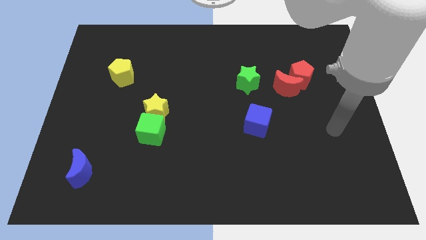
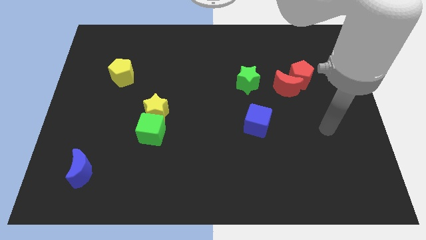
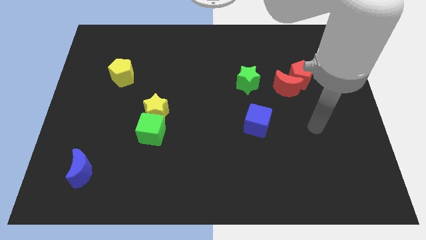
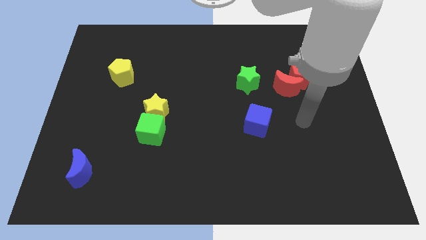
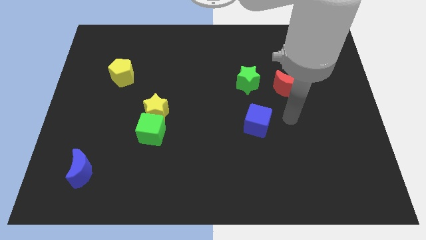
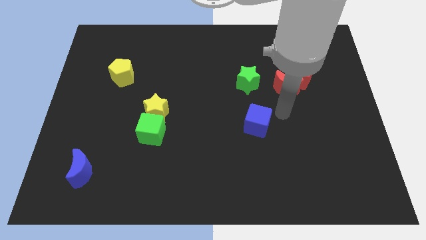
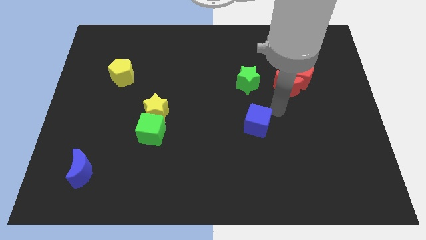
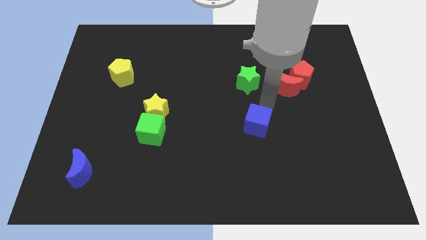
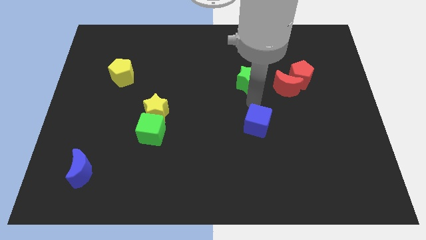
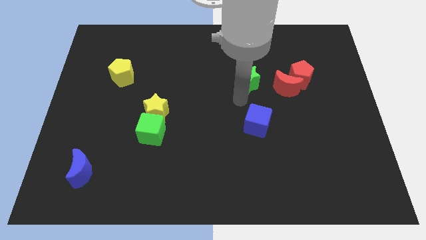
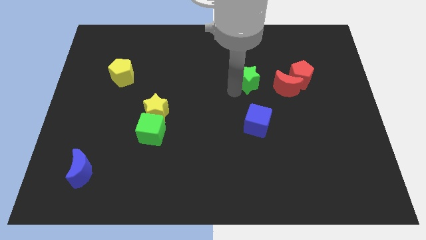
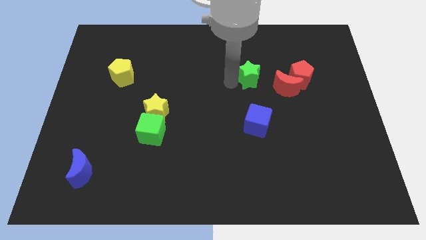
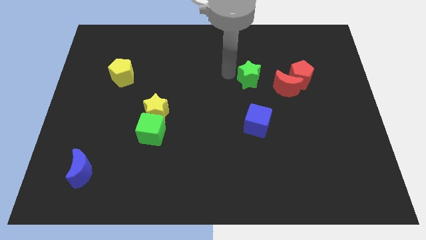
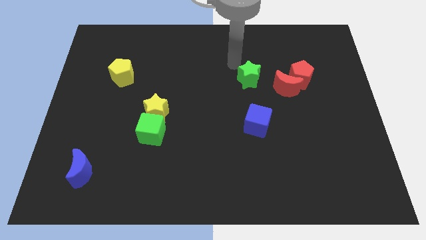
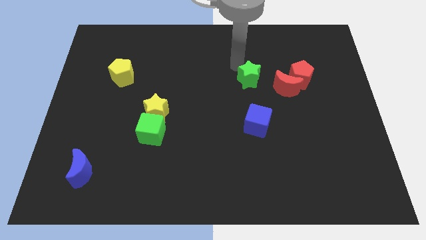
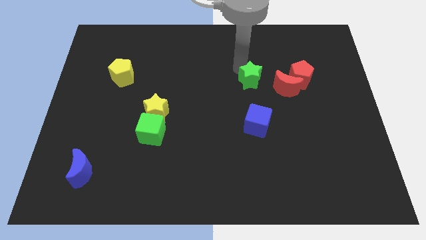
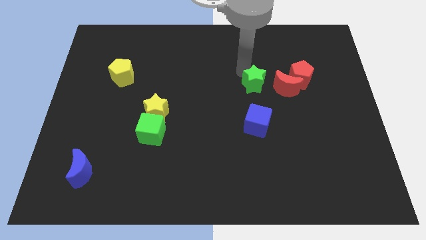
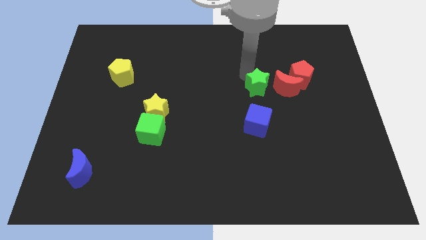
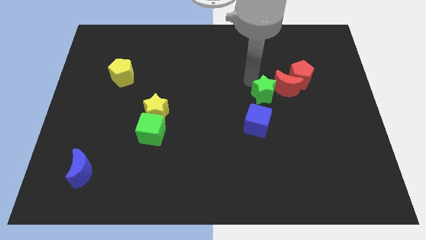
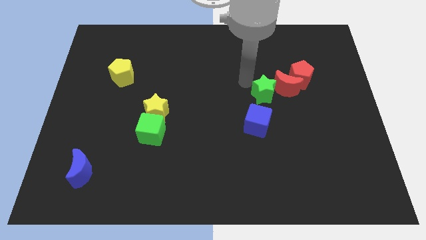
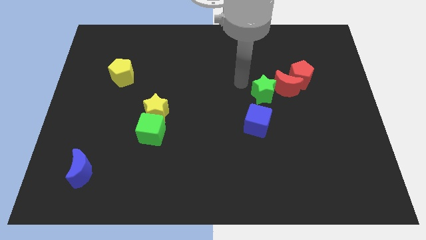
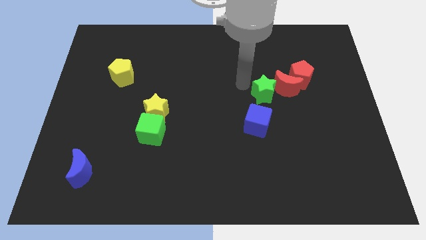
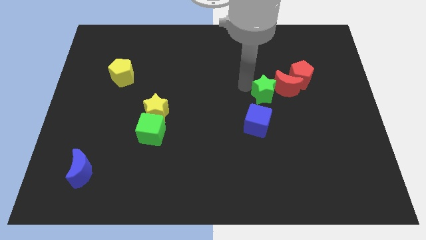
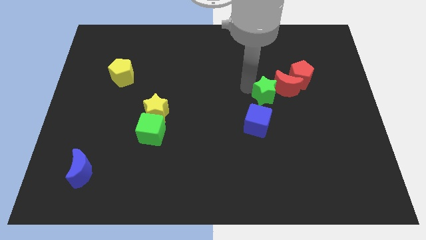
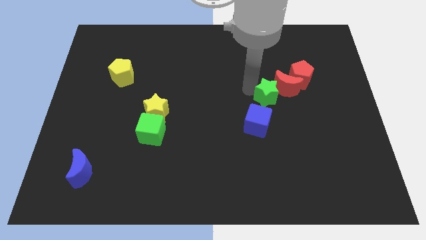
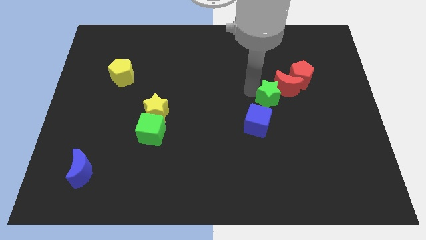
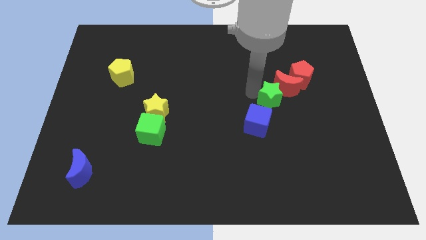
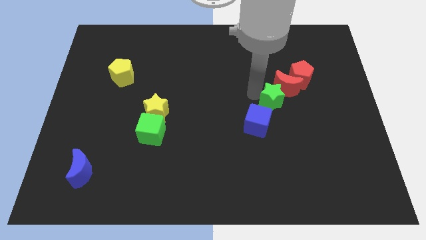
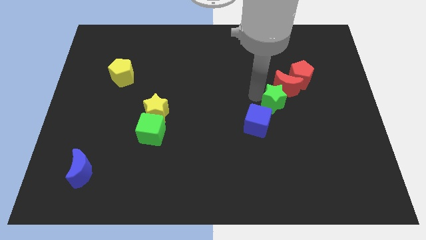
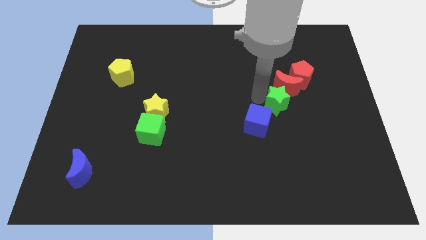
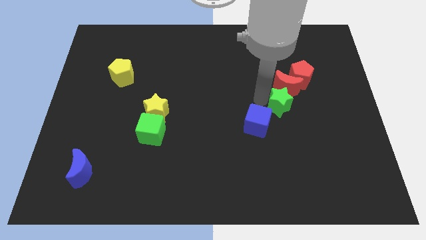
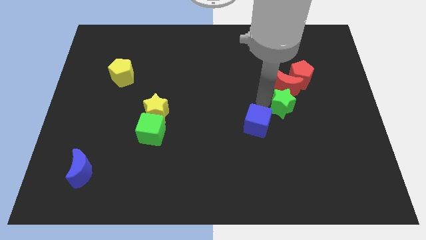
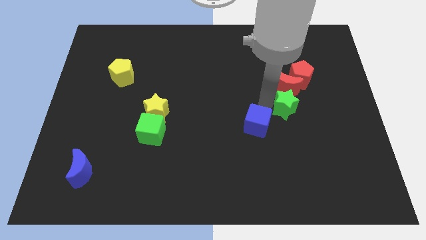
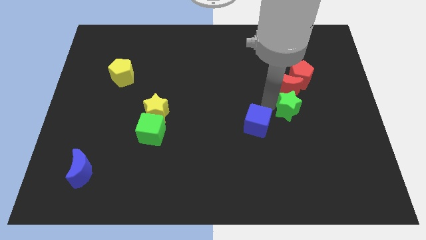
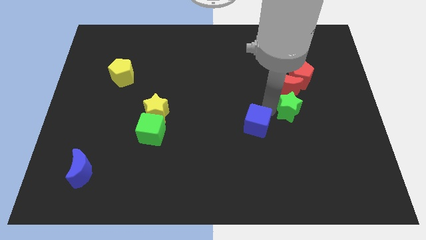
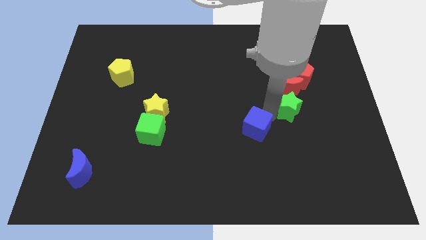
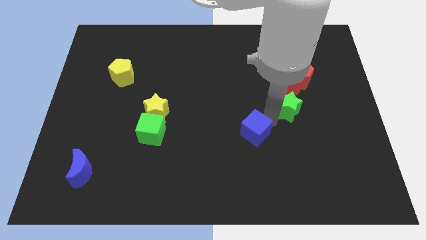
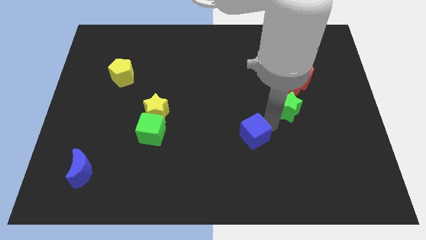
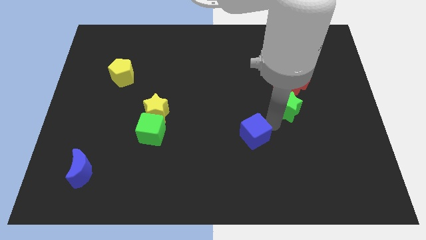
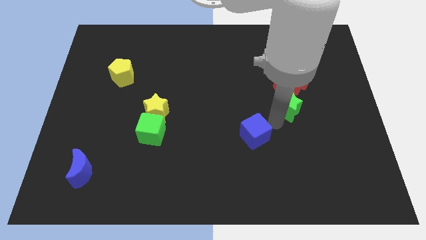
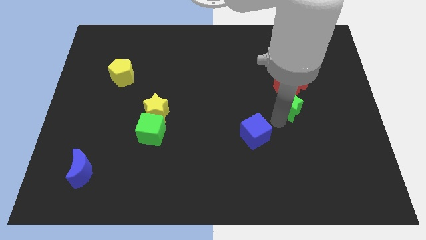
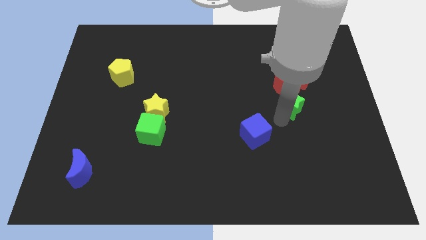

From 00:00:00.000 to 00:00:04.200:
slightly move the green star right

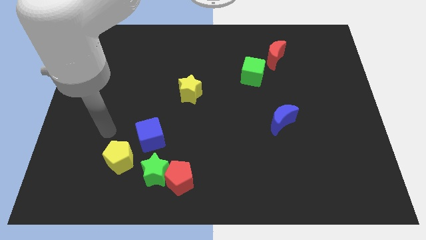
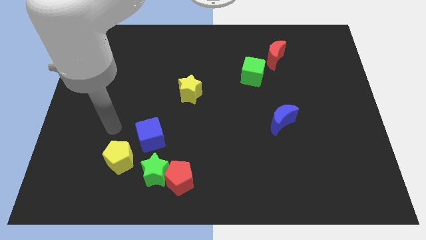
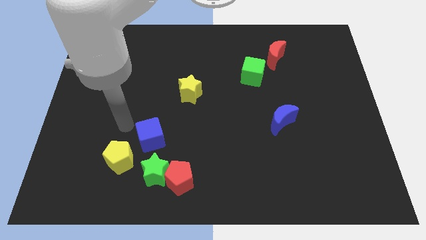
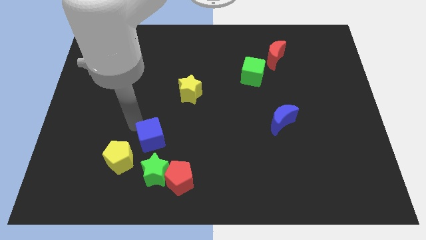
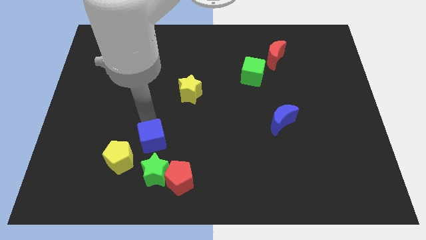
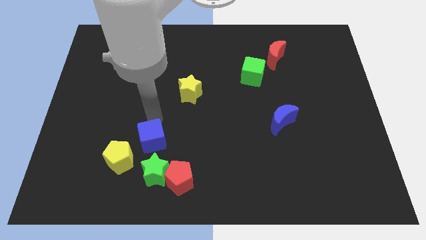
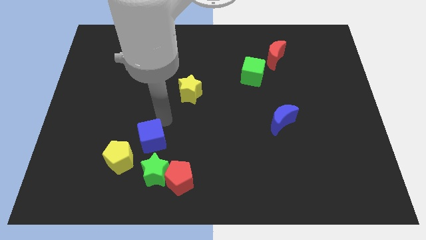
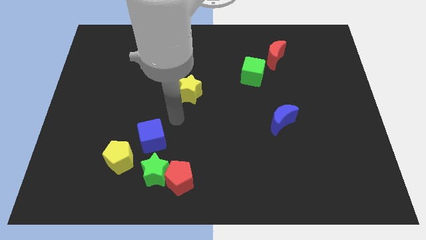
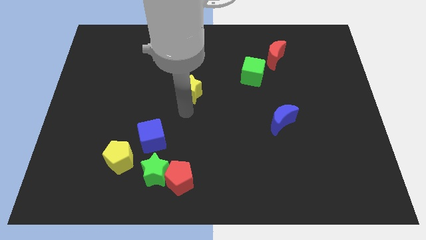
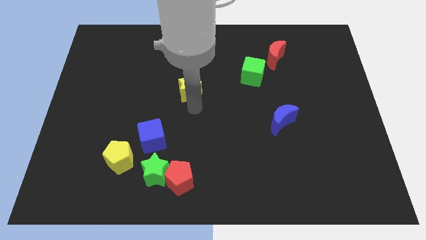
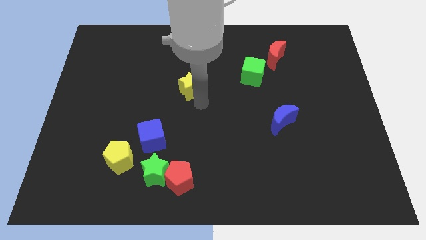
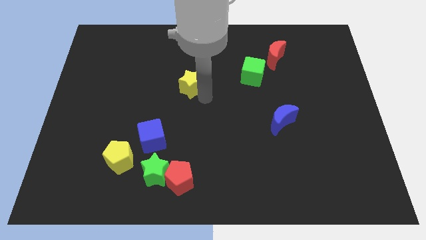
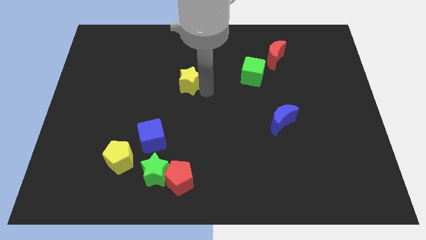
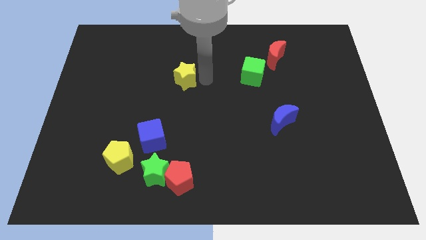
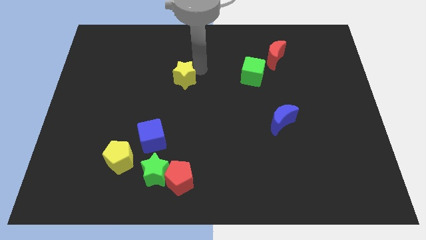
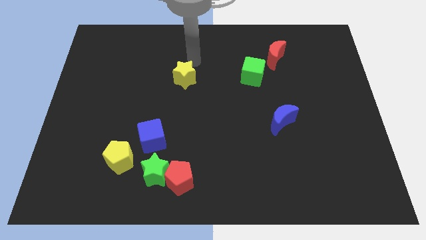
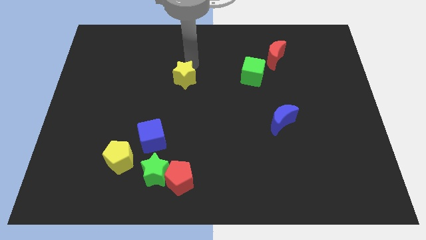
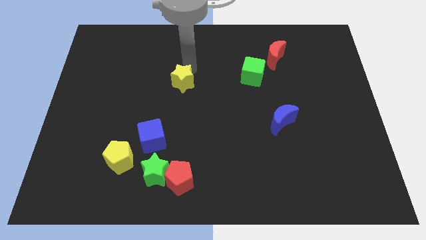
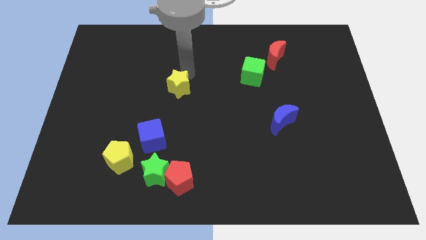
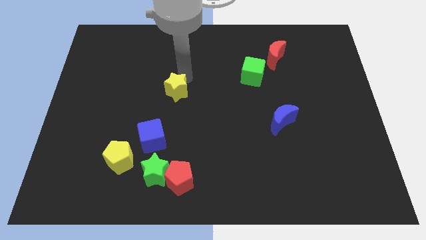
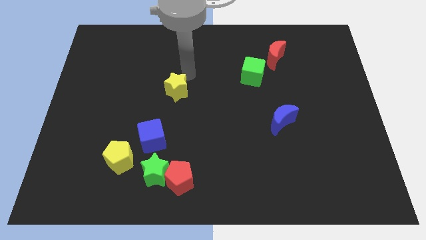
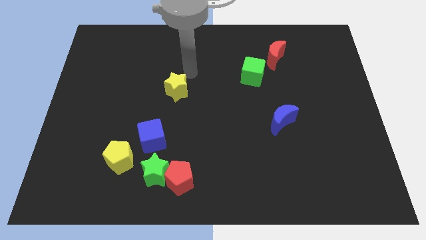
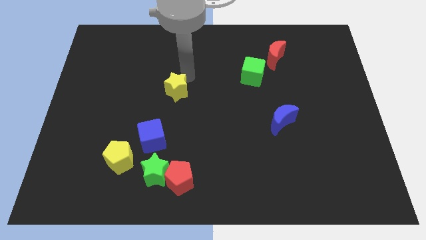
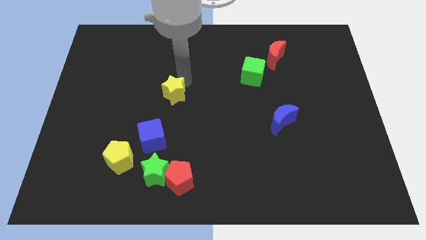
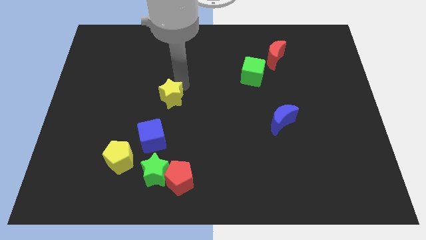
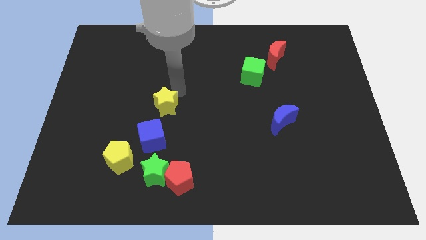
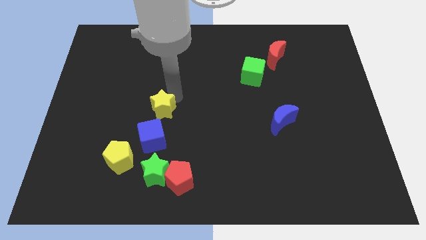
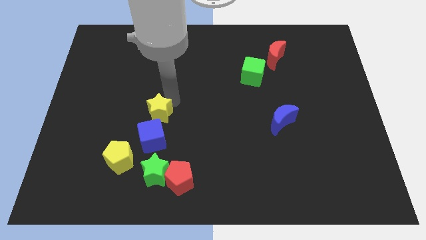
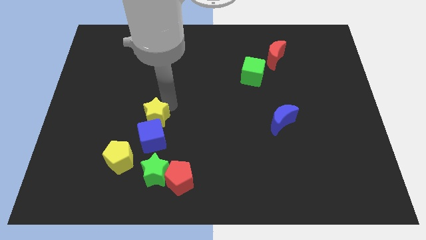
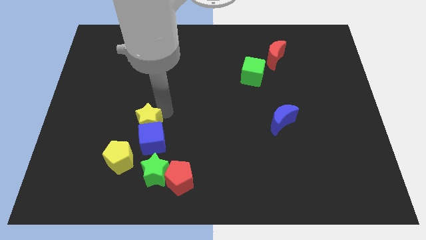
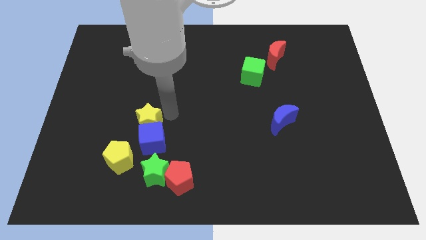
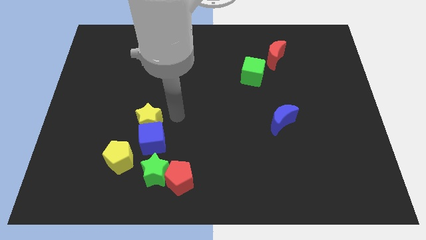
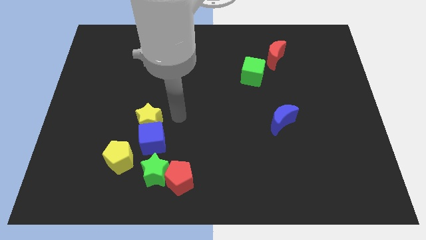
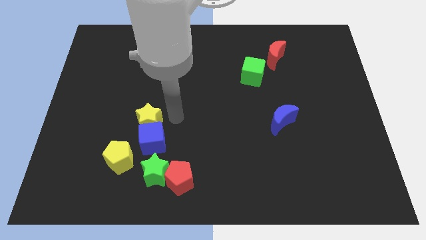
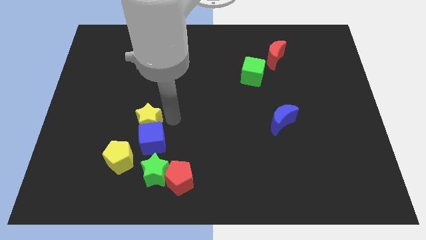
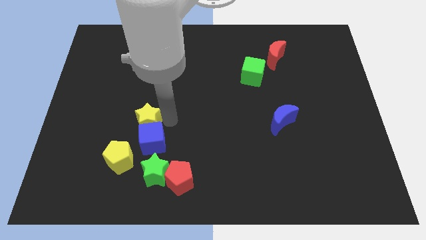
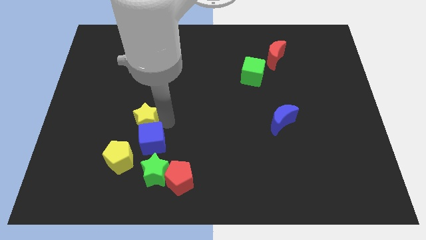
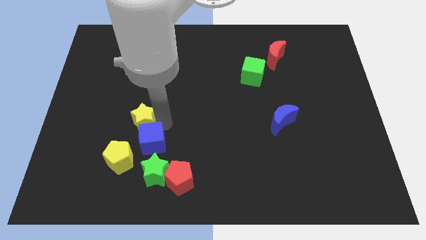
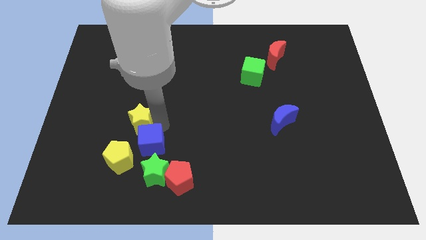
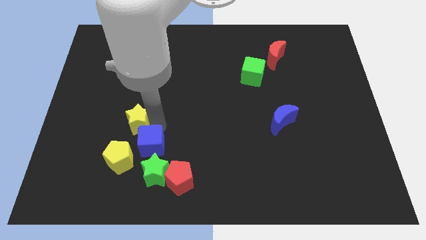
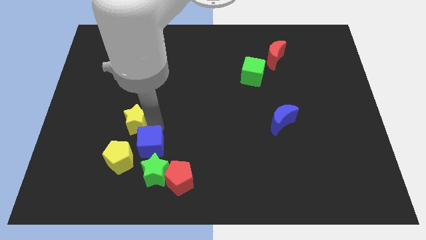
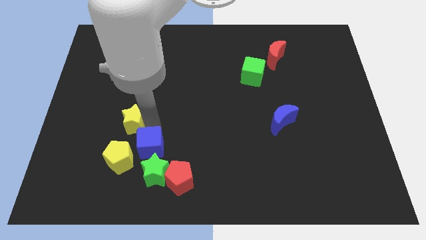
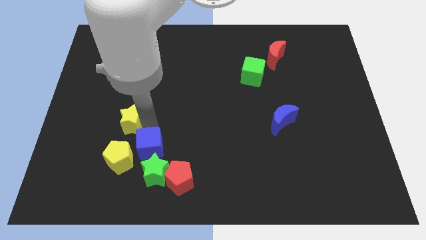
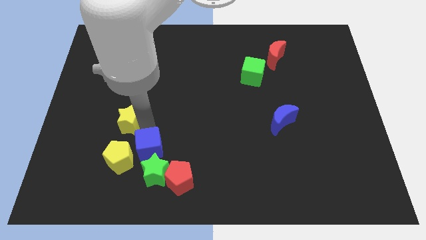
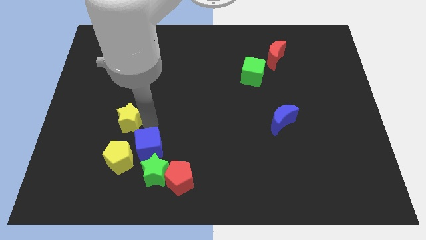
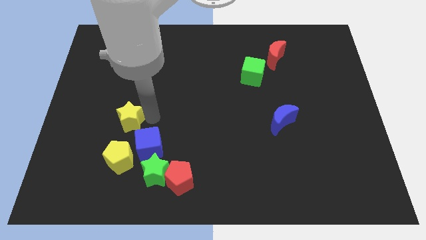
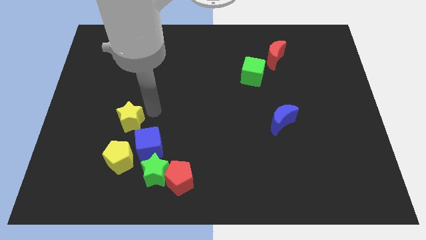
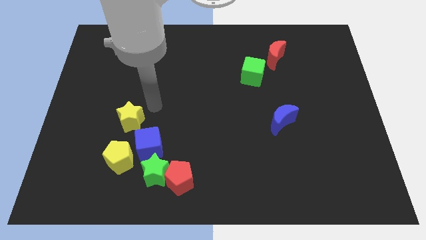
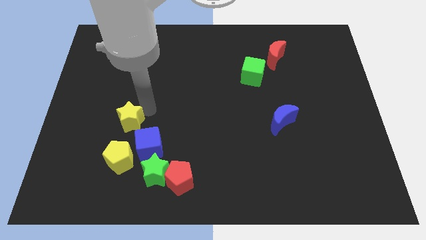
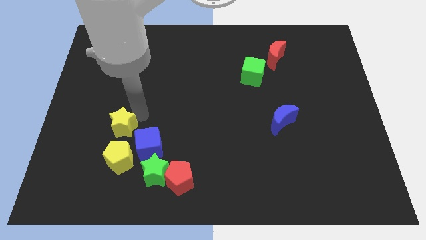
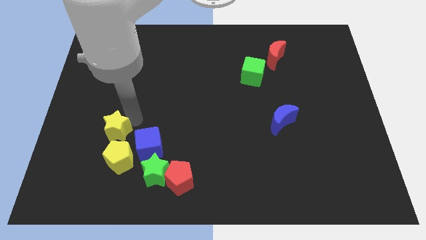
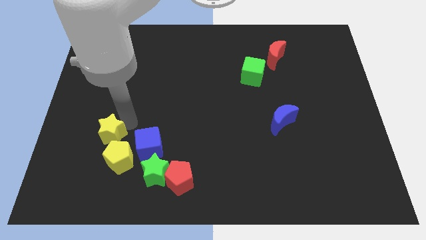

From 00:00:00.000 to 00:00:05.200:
move the yellow star downwards and left diagonally
